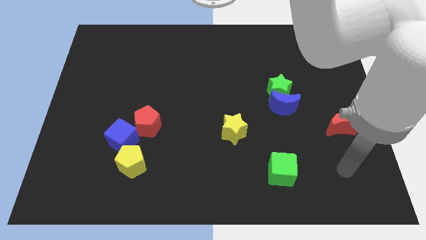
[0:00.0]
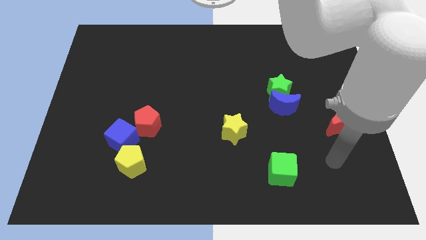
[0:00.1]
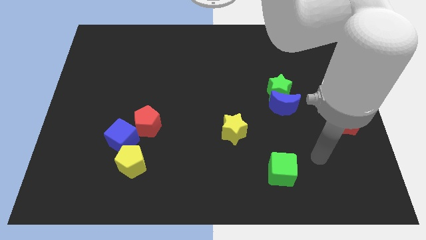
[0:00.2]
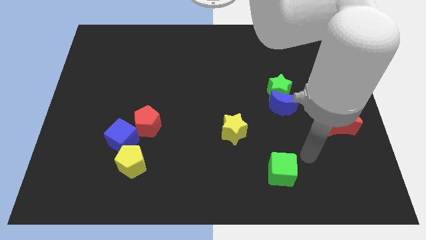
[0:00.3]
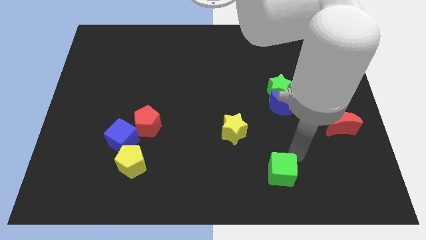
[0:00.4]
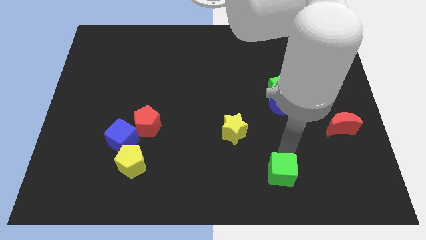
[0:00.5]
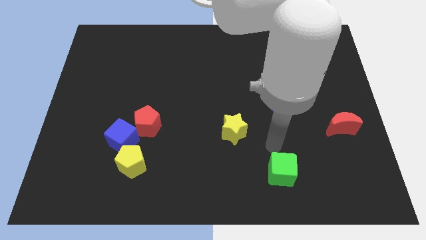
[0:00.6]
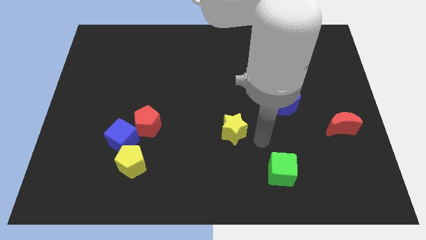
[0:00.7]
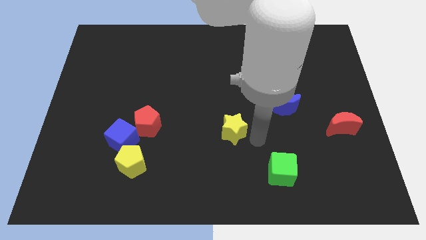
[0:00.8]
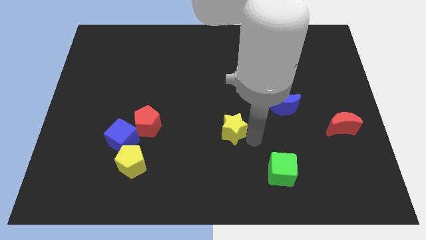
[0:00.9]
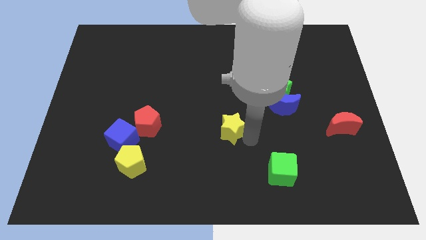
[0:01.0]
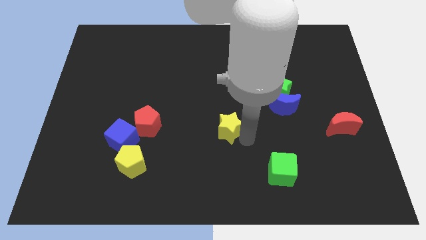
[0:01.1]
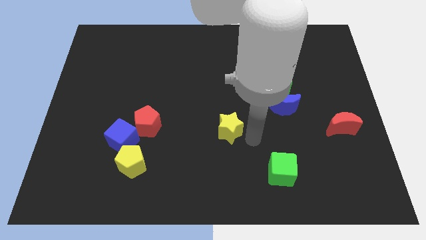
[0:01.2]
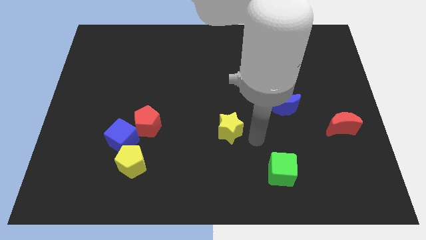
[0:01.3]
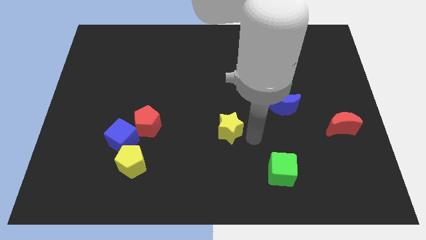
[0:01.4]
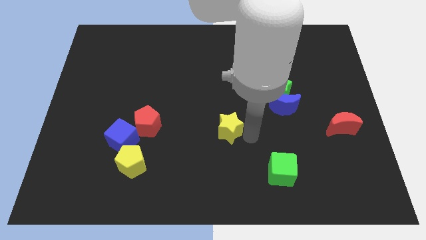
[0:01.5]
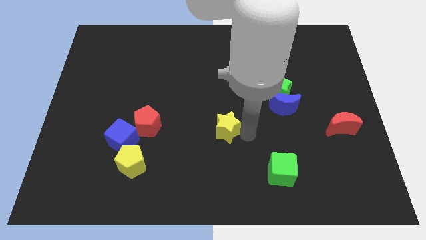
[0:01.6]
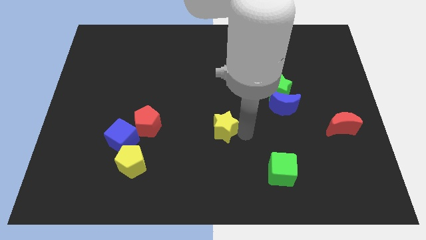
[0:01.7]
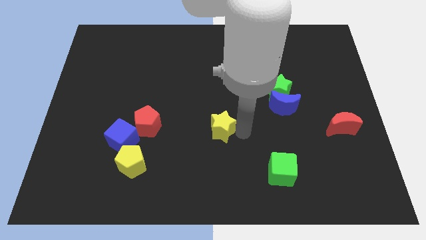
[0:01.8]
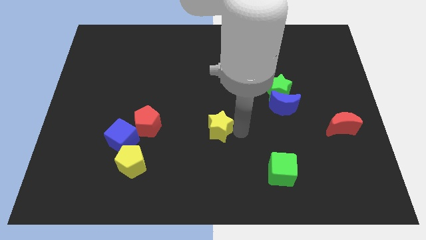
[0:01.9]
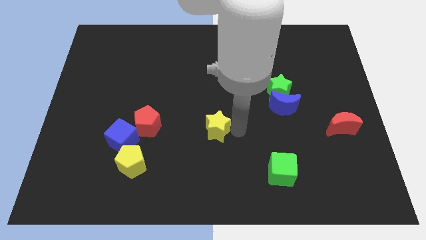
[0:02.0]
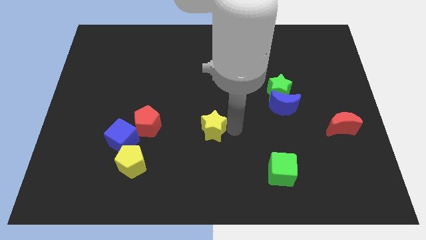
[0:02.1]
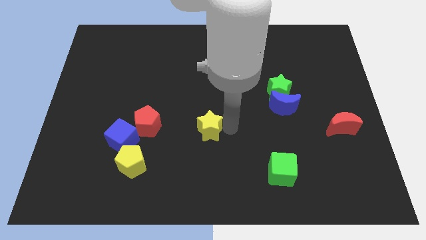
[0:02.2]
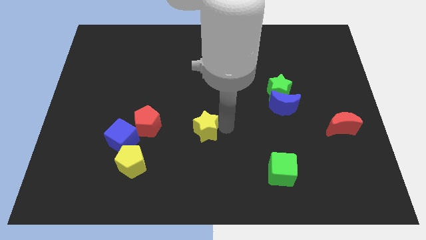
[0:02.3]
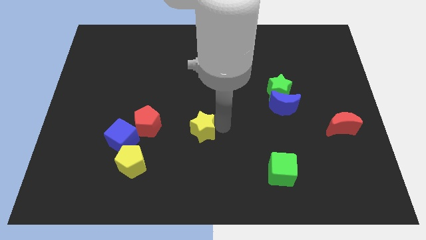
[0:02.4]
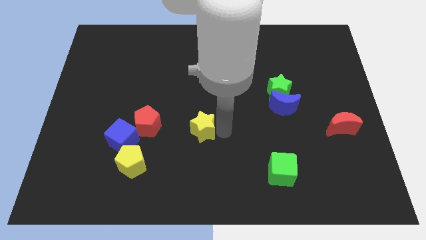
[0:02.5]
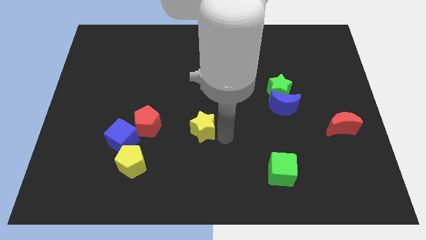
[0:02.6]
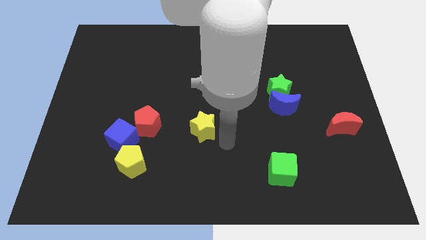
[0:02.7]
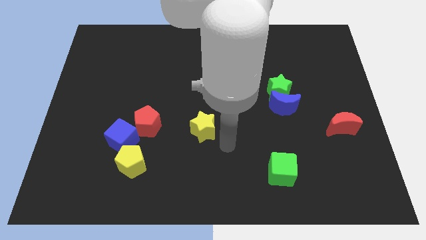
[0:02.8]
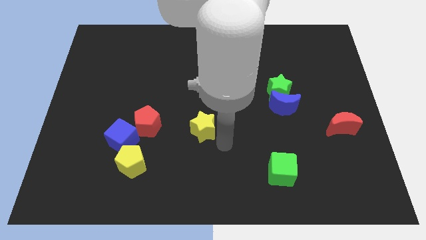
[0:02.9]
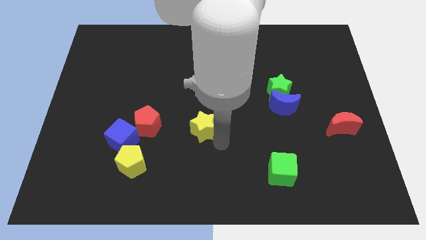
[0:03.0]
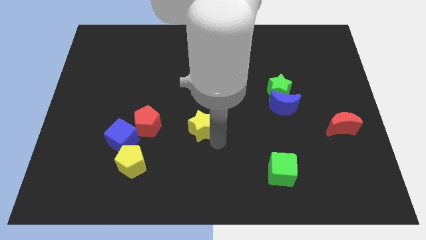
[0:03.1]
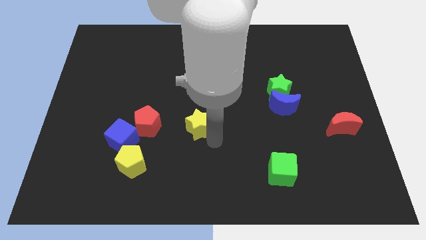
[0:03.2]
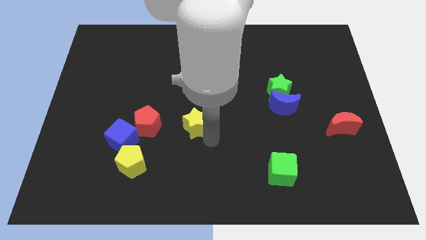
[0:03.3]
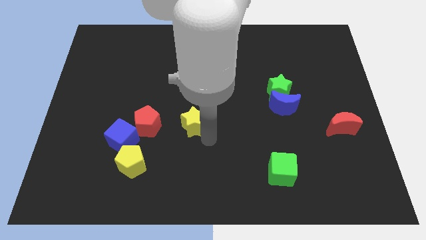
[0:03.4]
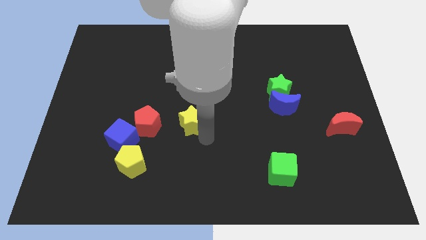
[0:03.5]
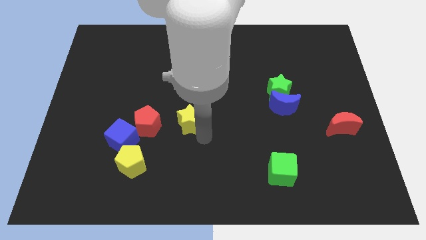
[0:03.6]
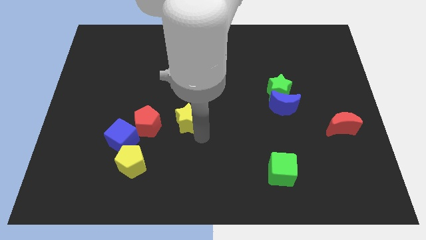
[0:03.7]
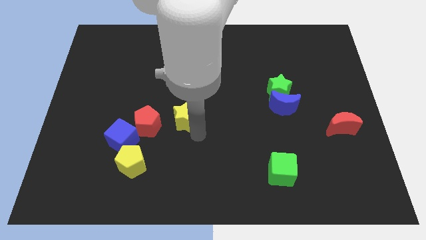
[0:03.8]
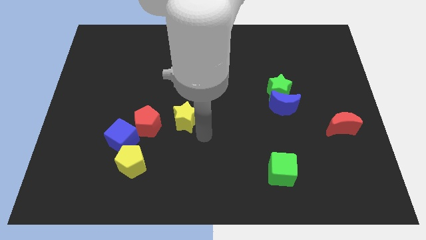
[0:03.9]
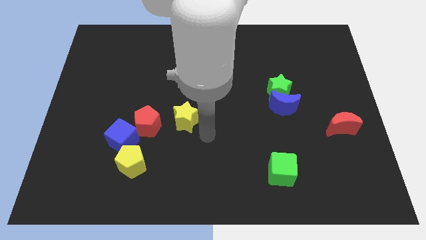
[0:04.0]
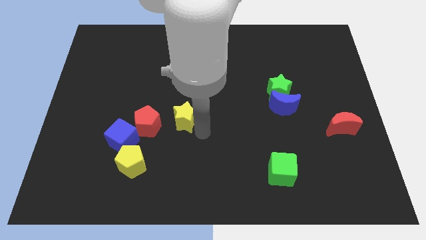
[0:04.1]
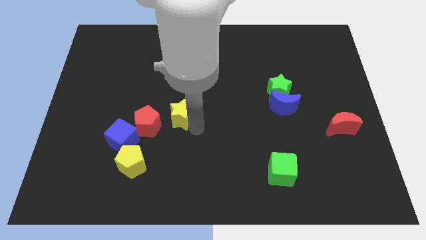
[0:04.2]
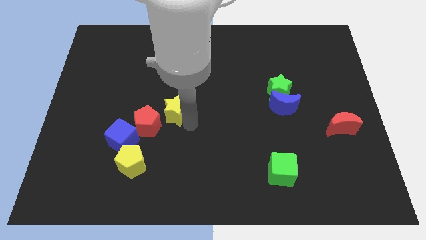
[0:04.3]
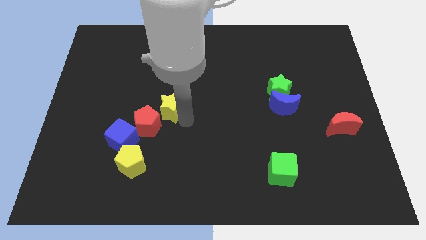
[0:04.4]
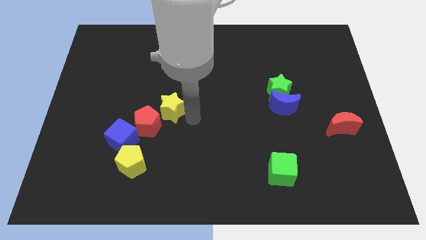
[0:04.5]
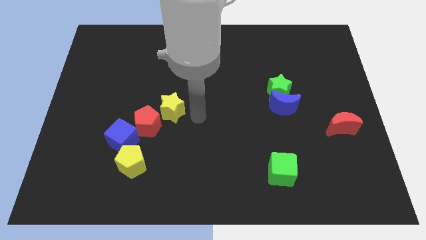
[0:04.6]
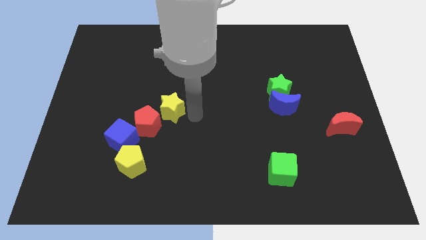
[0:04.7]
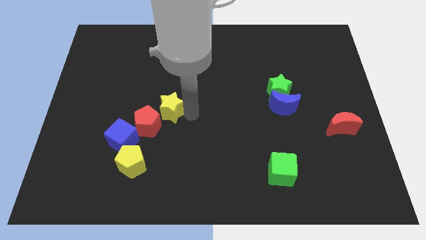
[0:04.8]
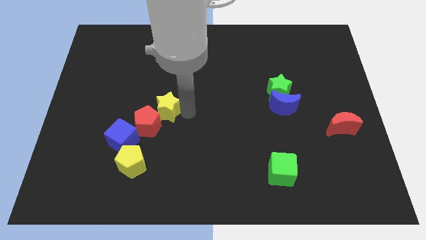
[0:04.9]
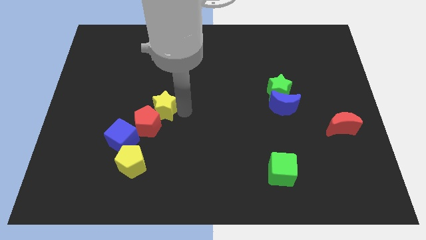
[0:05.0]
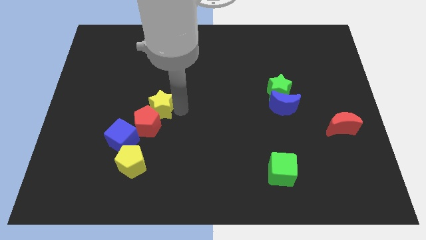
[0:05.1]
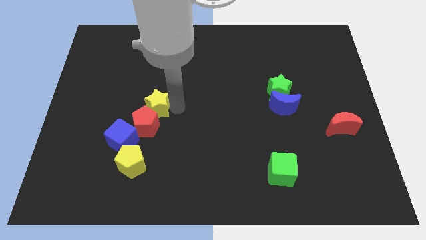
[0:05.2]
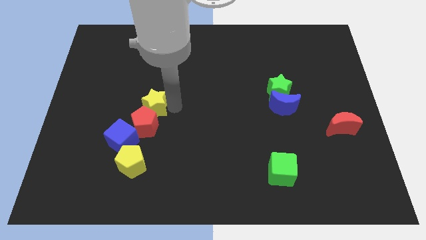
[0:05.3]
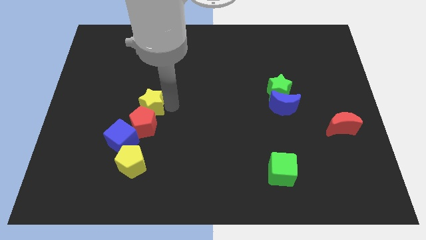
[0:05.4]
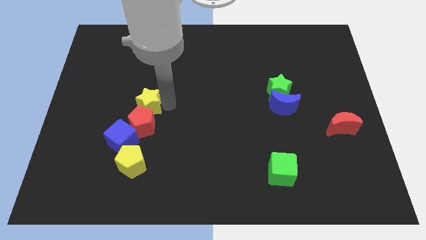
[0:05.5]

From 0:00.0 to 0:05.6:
push the yellow star above the blue cube

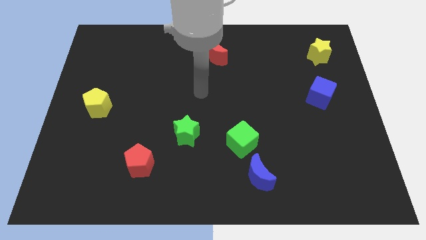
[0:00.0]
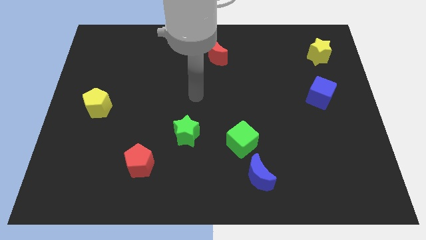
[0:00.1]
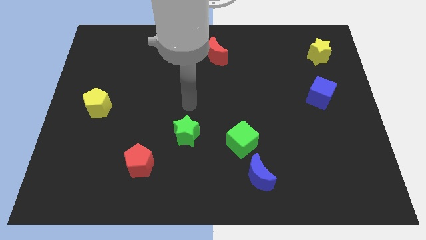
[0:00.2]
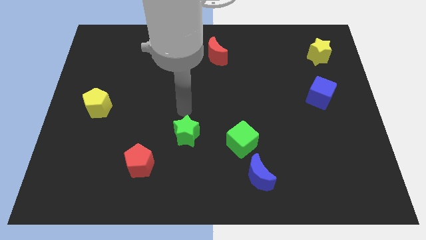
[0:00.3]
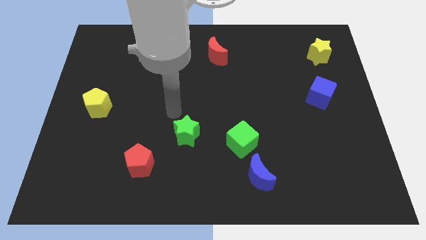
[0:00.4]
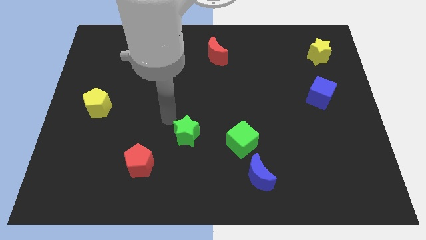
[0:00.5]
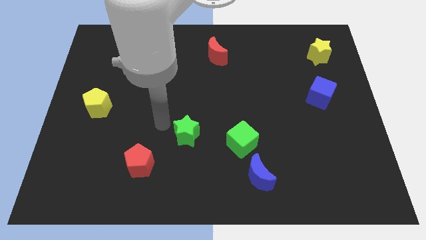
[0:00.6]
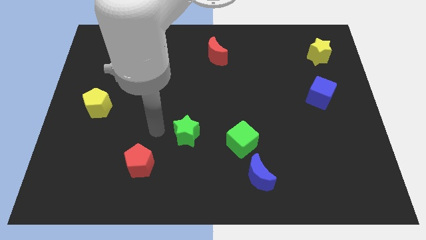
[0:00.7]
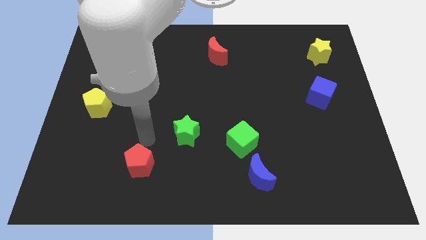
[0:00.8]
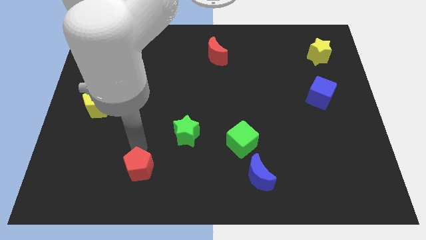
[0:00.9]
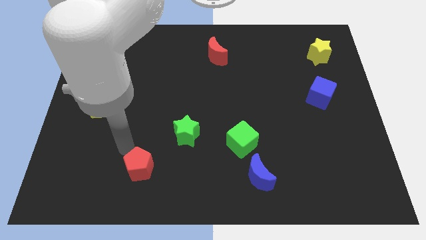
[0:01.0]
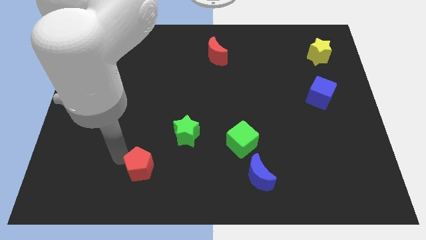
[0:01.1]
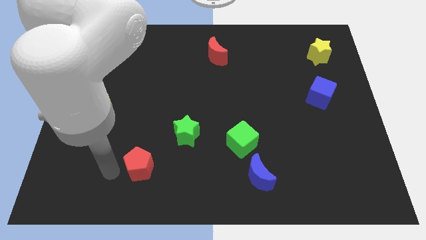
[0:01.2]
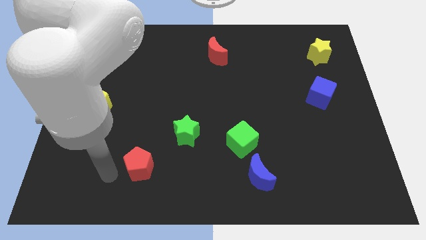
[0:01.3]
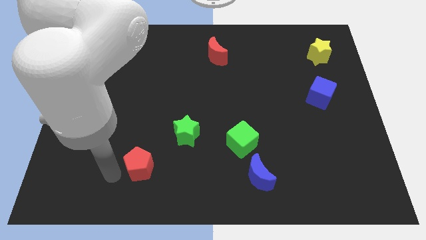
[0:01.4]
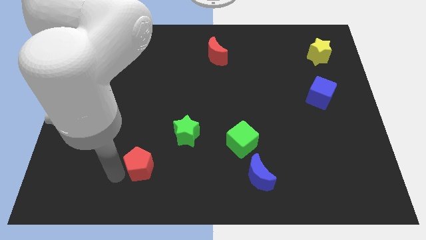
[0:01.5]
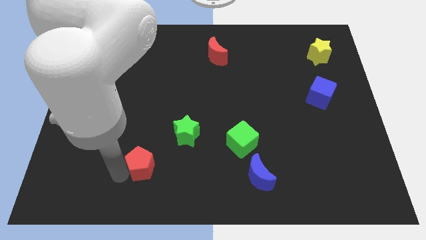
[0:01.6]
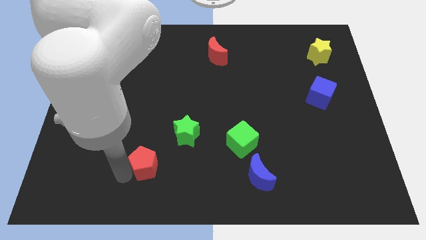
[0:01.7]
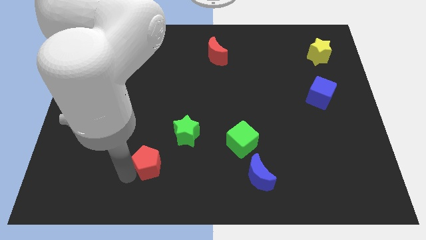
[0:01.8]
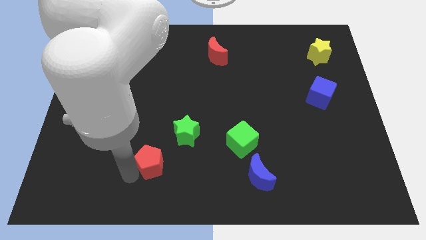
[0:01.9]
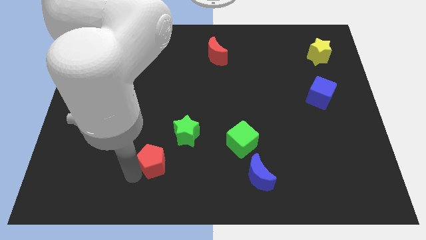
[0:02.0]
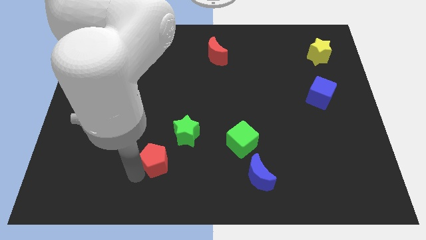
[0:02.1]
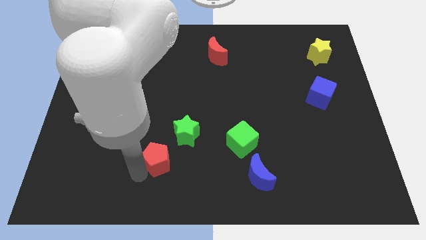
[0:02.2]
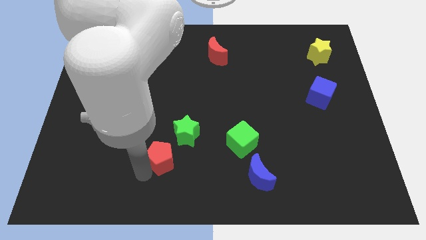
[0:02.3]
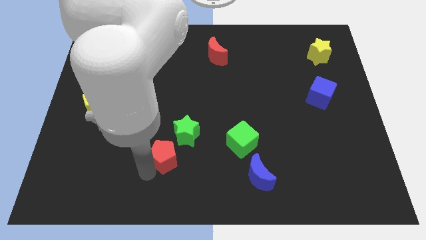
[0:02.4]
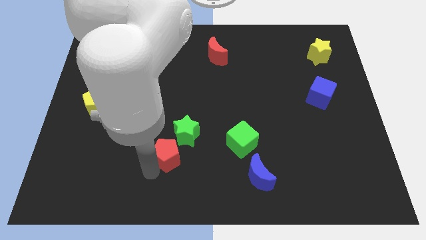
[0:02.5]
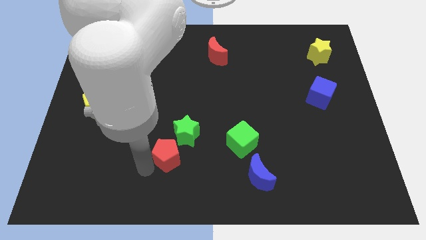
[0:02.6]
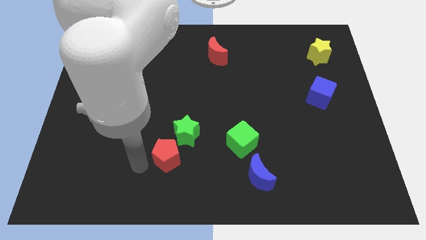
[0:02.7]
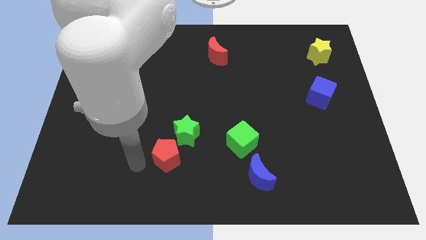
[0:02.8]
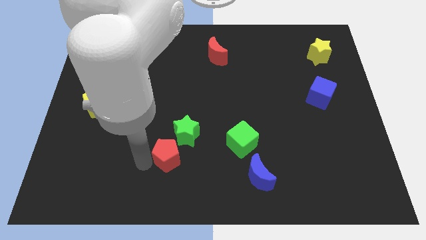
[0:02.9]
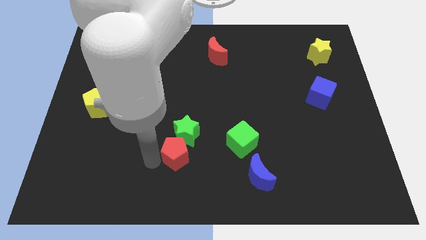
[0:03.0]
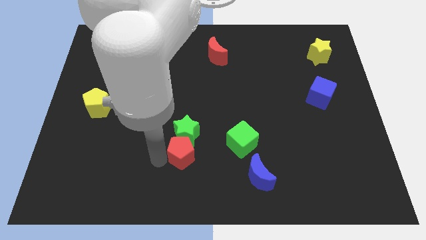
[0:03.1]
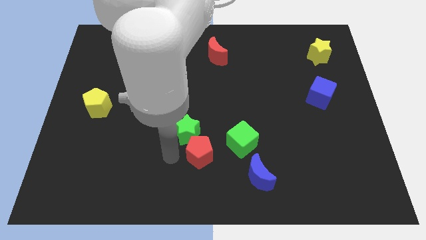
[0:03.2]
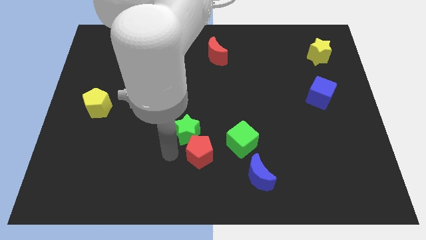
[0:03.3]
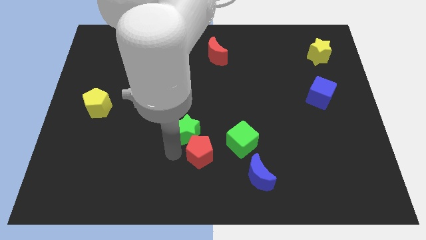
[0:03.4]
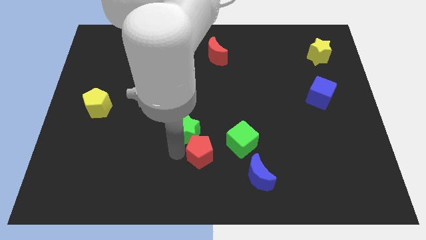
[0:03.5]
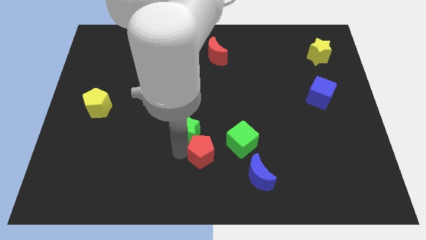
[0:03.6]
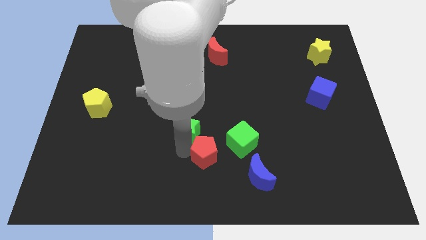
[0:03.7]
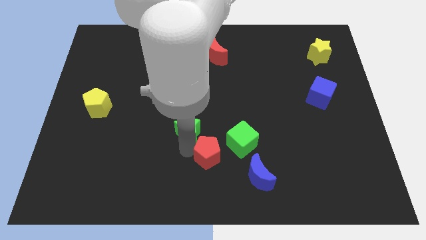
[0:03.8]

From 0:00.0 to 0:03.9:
push the red pentagon to the top left of the blue moon
